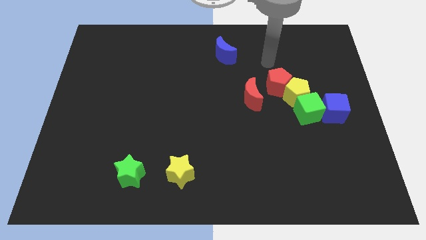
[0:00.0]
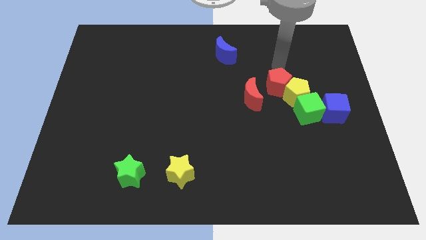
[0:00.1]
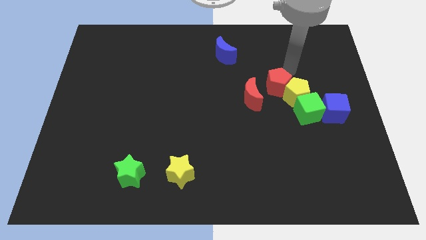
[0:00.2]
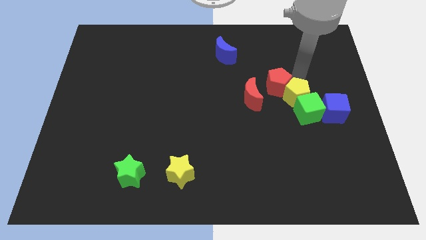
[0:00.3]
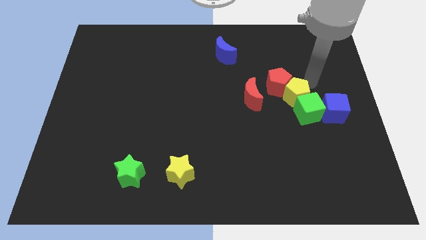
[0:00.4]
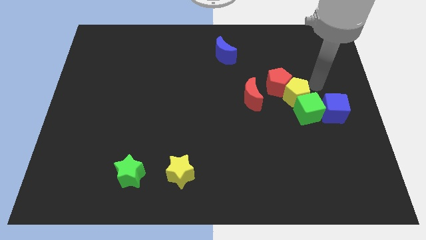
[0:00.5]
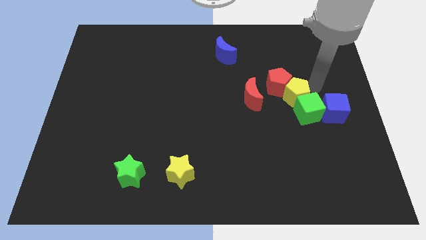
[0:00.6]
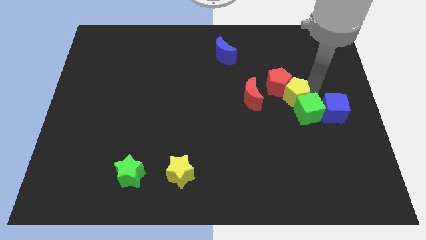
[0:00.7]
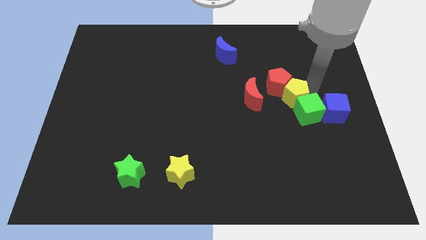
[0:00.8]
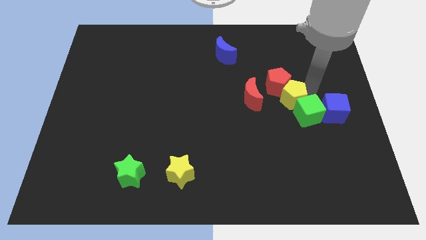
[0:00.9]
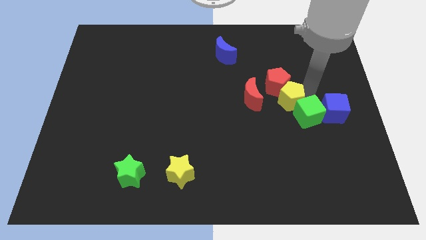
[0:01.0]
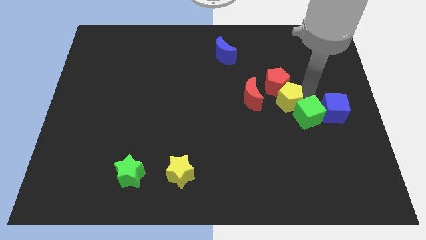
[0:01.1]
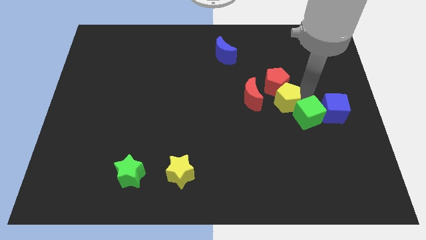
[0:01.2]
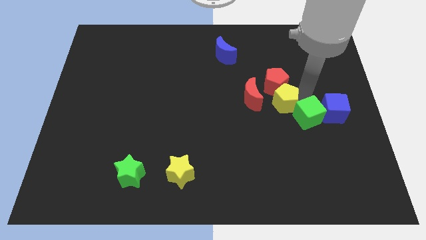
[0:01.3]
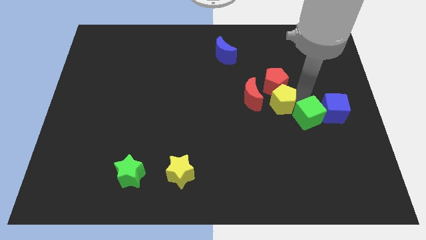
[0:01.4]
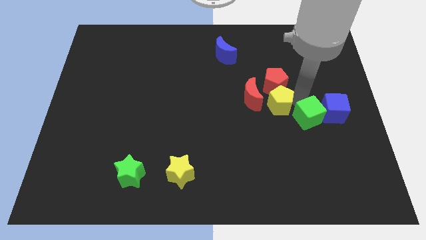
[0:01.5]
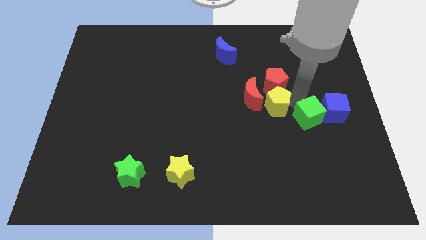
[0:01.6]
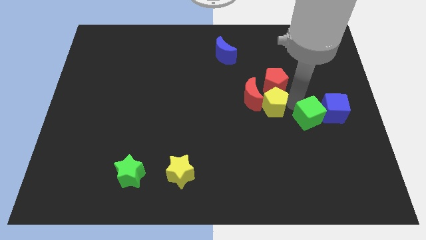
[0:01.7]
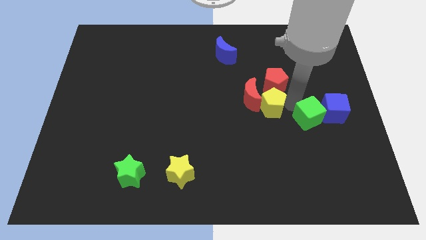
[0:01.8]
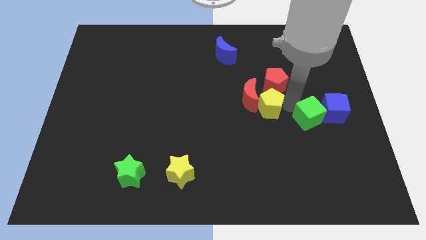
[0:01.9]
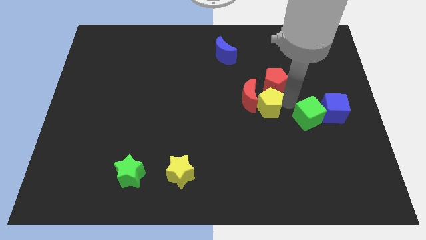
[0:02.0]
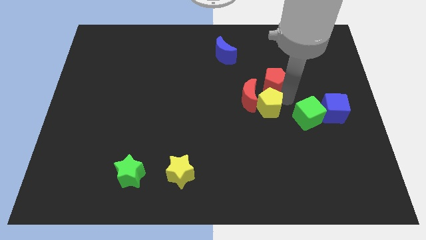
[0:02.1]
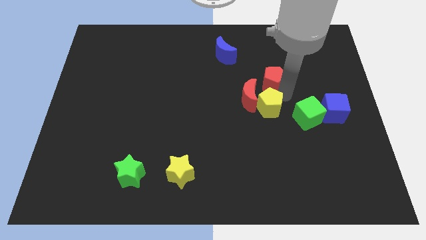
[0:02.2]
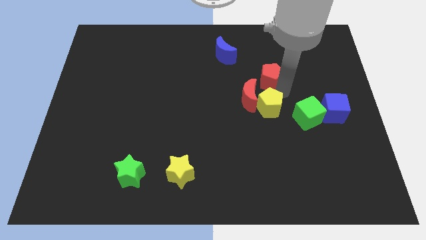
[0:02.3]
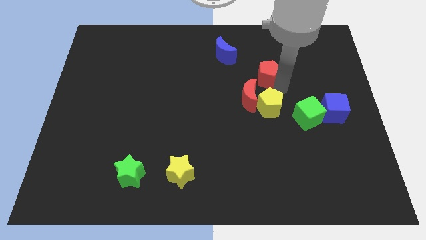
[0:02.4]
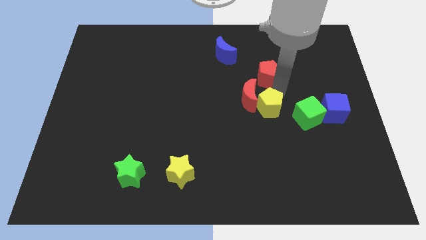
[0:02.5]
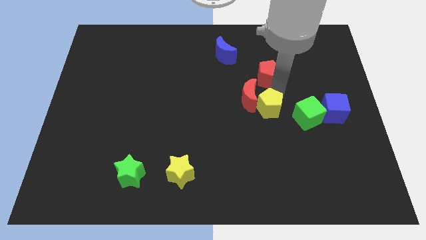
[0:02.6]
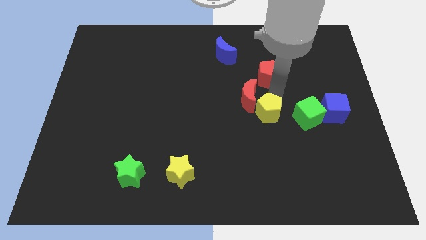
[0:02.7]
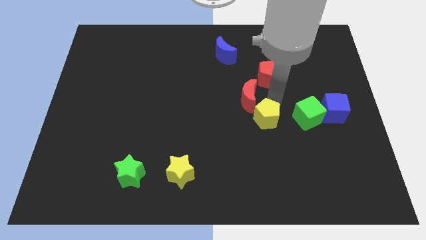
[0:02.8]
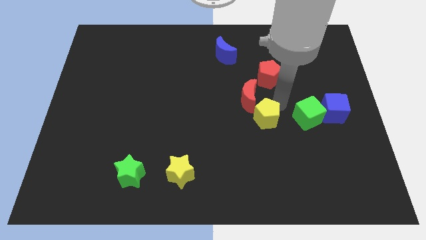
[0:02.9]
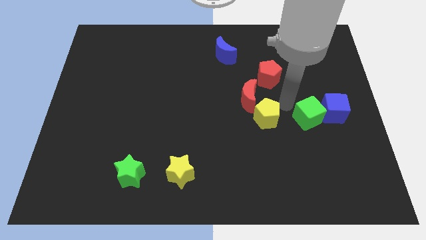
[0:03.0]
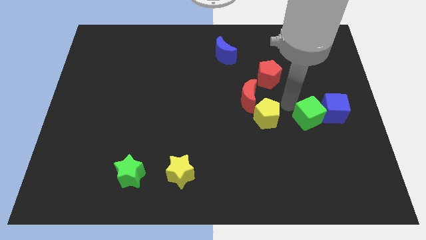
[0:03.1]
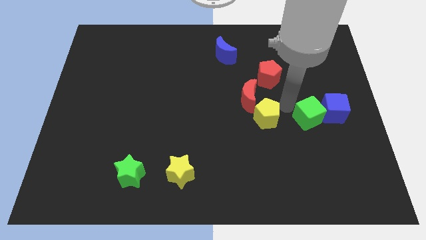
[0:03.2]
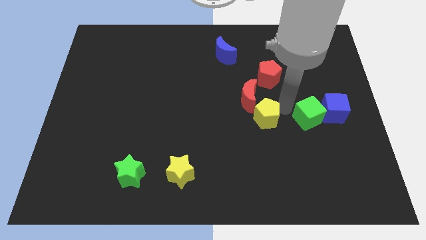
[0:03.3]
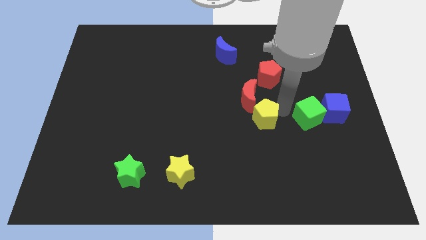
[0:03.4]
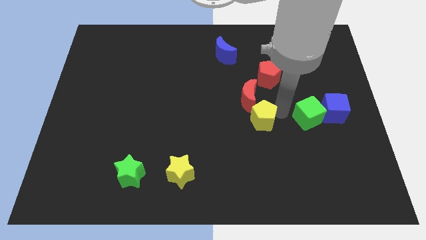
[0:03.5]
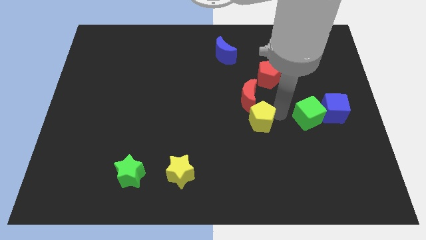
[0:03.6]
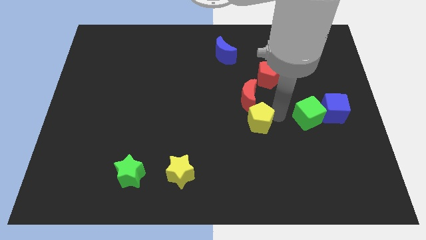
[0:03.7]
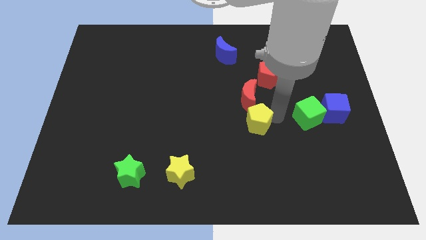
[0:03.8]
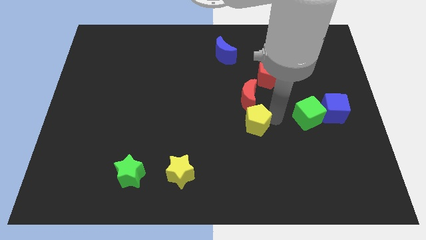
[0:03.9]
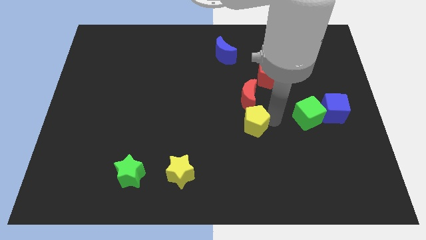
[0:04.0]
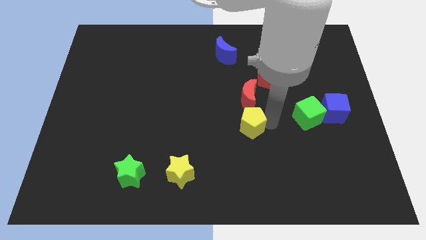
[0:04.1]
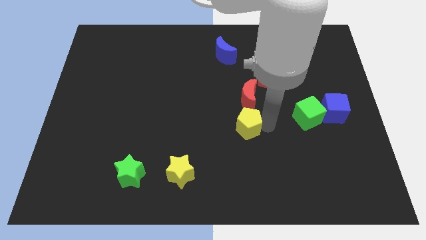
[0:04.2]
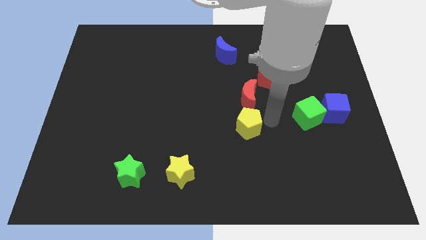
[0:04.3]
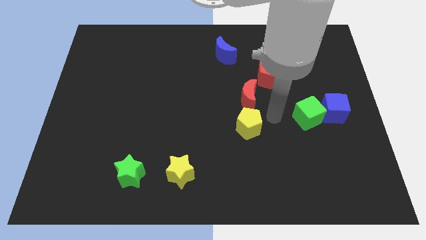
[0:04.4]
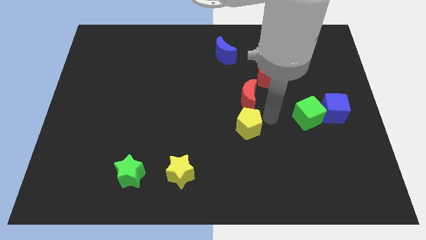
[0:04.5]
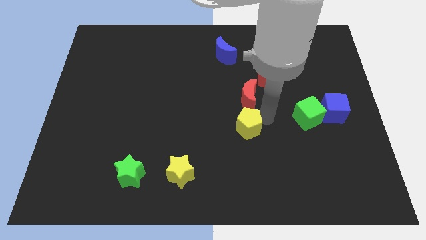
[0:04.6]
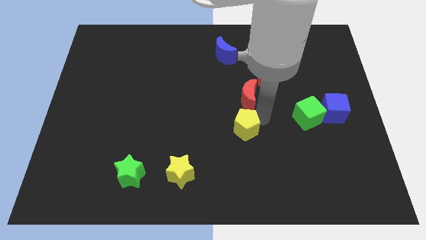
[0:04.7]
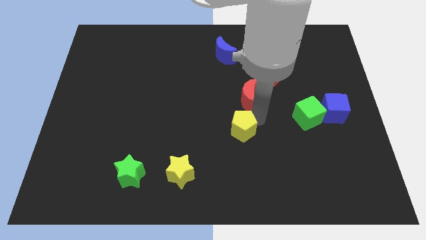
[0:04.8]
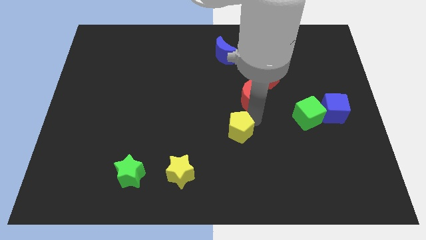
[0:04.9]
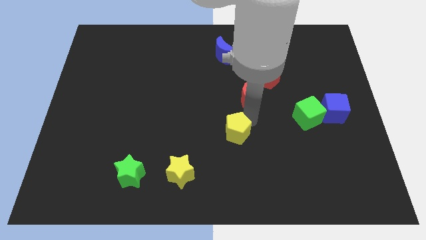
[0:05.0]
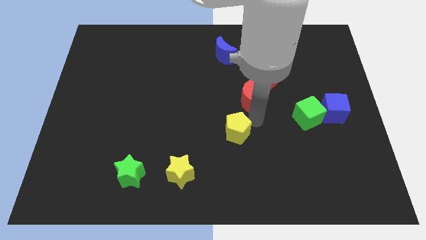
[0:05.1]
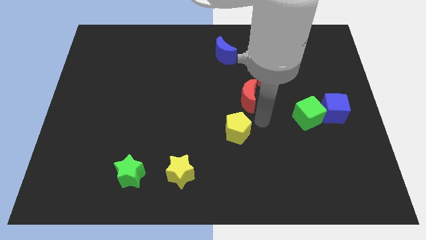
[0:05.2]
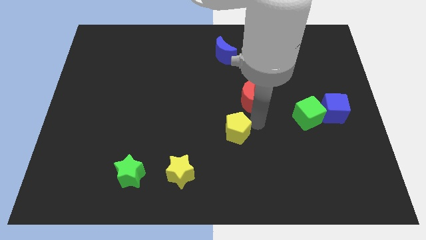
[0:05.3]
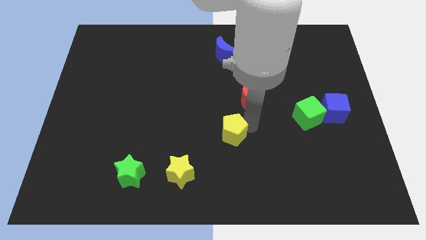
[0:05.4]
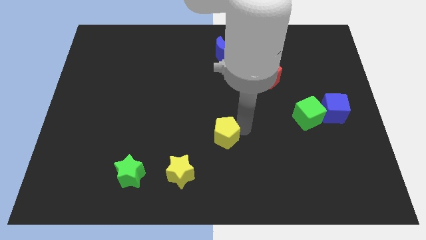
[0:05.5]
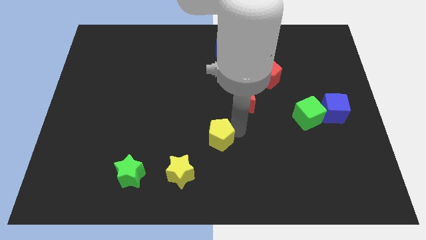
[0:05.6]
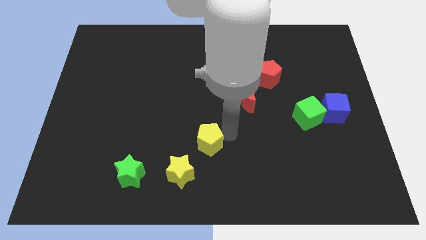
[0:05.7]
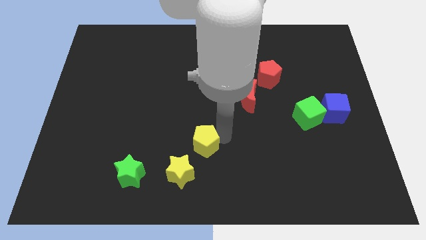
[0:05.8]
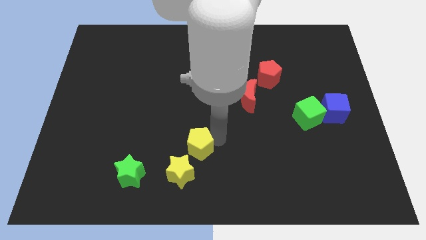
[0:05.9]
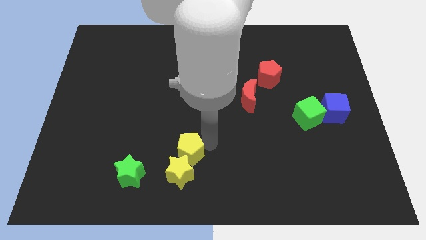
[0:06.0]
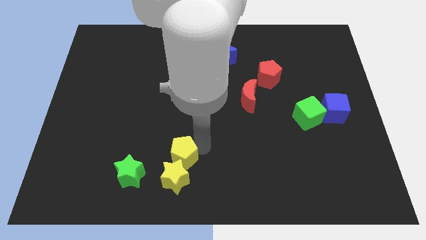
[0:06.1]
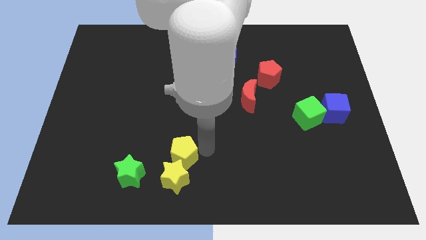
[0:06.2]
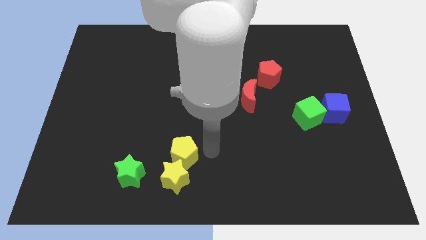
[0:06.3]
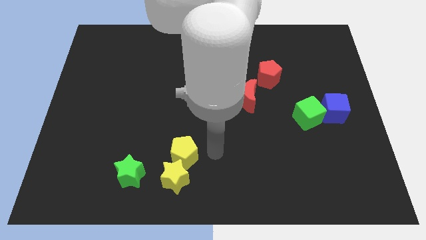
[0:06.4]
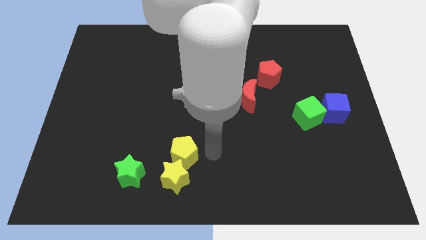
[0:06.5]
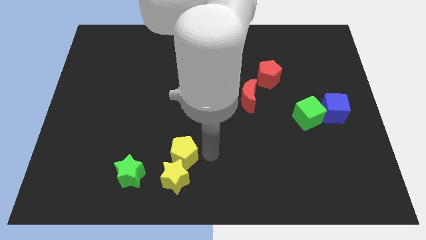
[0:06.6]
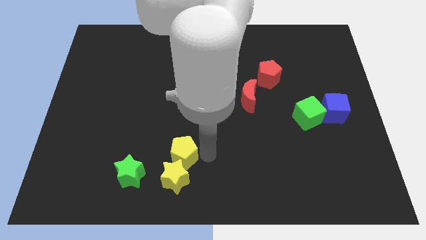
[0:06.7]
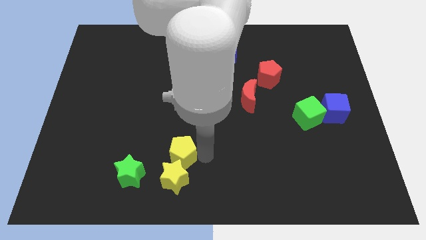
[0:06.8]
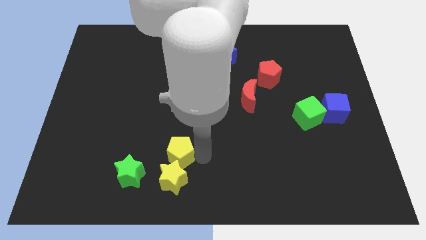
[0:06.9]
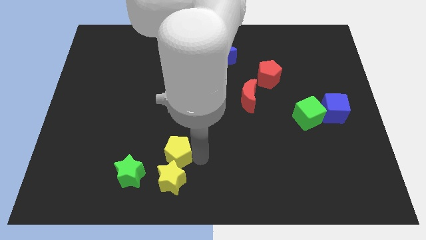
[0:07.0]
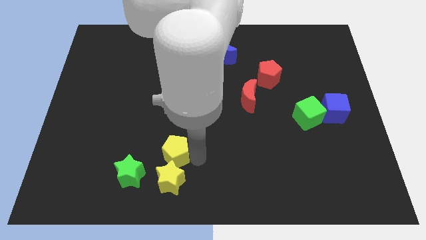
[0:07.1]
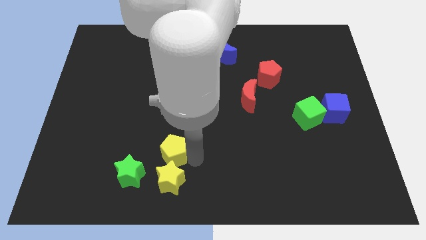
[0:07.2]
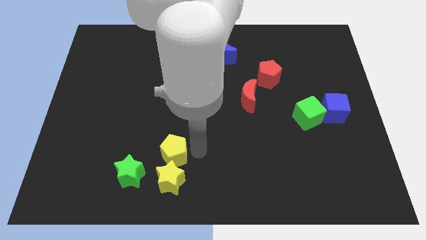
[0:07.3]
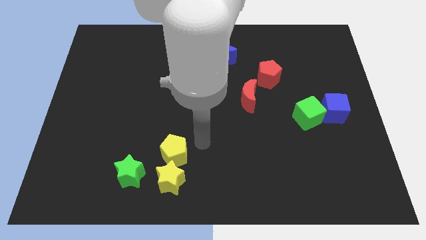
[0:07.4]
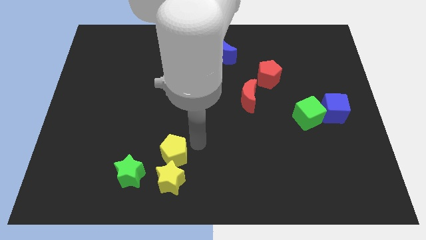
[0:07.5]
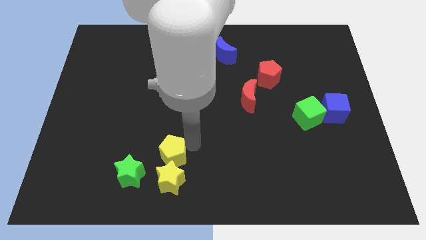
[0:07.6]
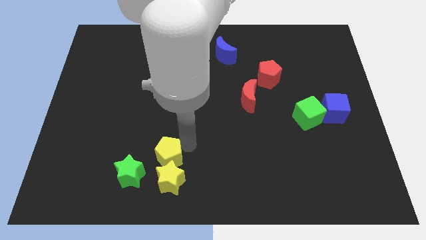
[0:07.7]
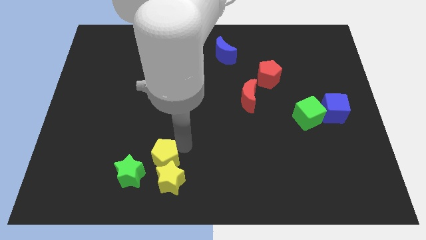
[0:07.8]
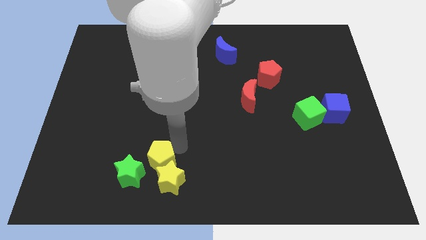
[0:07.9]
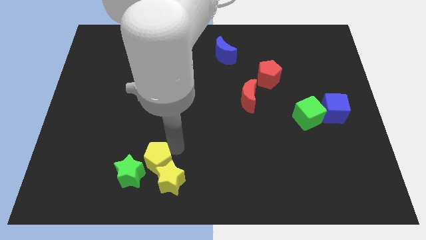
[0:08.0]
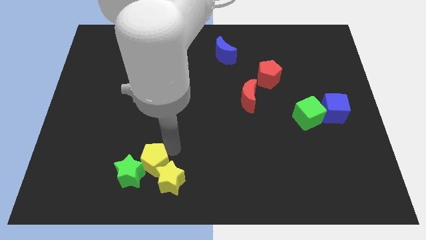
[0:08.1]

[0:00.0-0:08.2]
slide the yellow pentagon towards the green star
